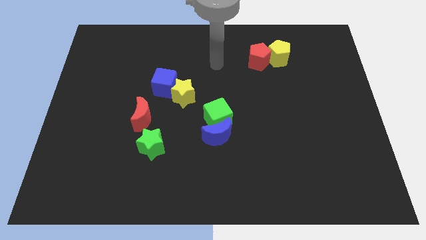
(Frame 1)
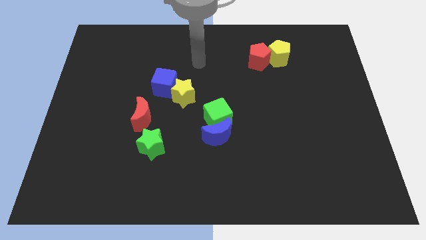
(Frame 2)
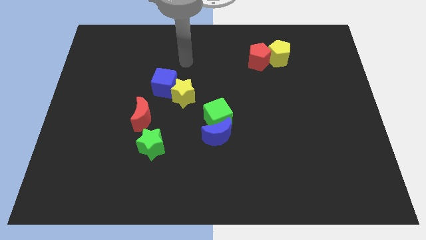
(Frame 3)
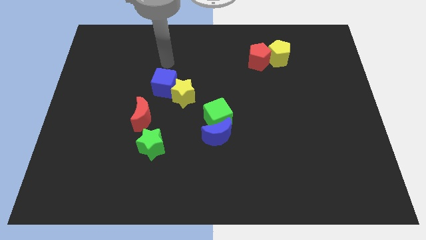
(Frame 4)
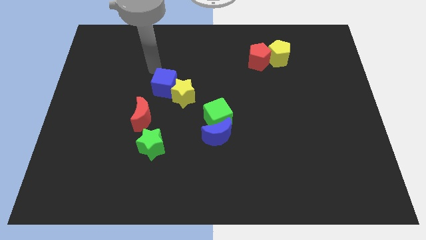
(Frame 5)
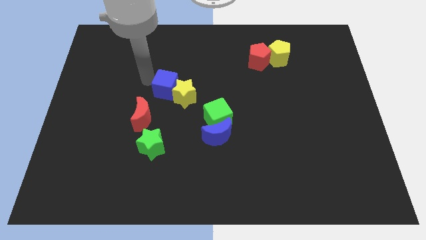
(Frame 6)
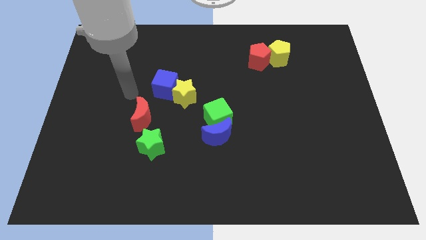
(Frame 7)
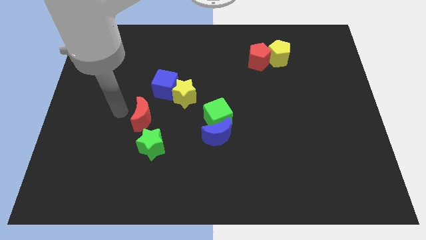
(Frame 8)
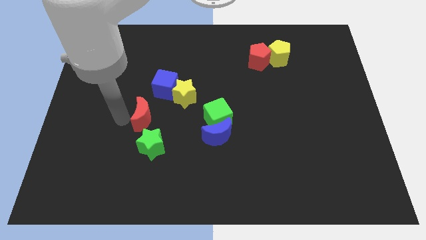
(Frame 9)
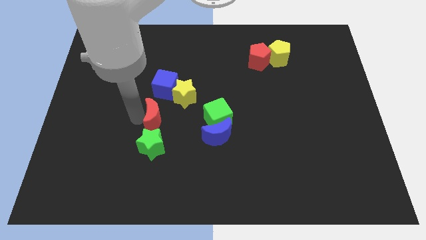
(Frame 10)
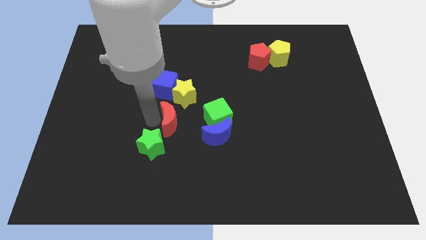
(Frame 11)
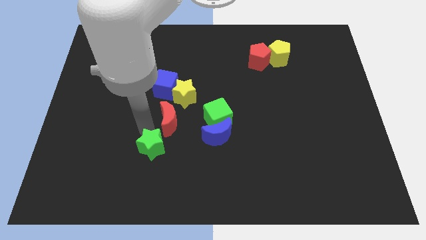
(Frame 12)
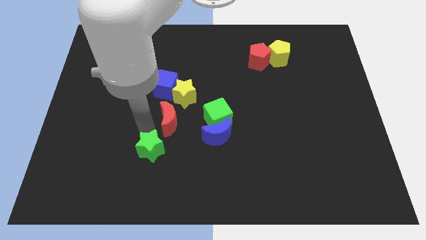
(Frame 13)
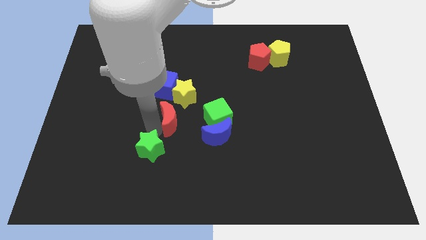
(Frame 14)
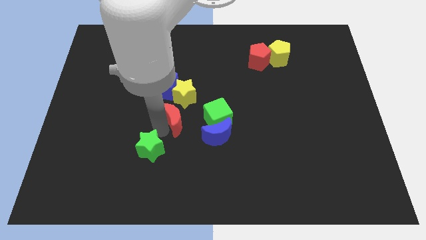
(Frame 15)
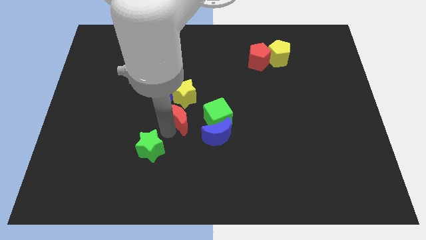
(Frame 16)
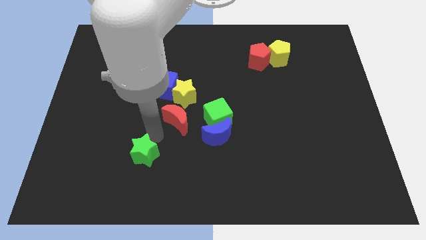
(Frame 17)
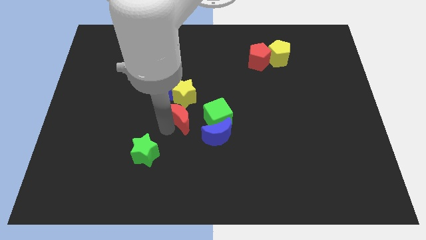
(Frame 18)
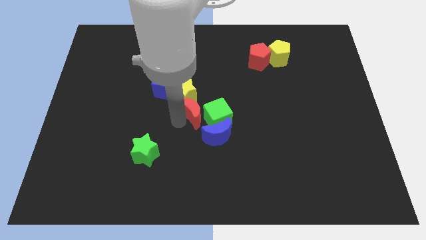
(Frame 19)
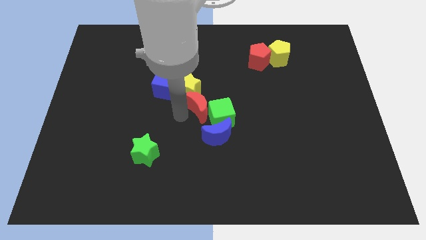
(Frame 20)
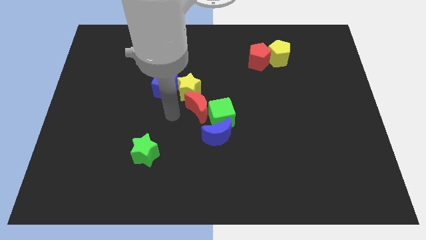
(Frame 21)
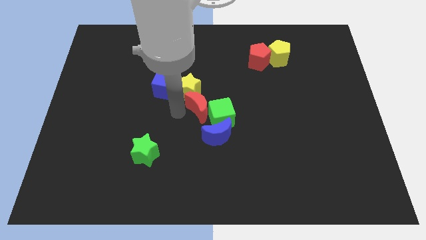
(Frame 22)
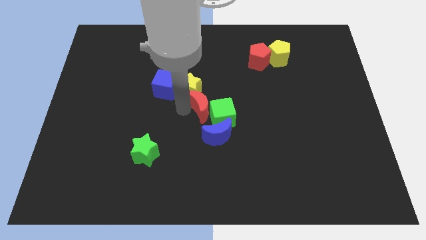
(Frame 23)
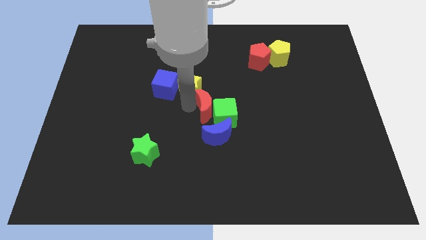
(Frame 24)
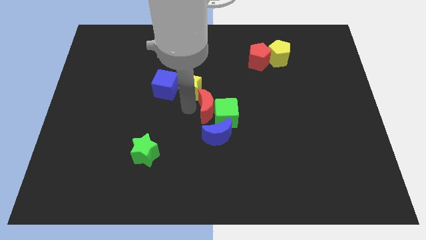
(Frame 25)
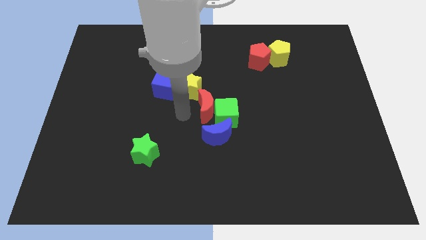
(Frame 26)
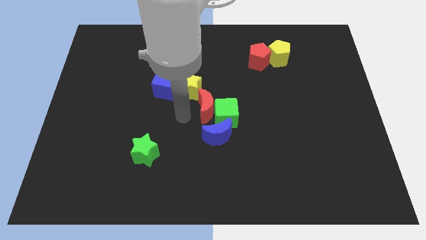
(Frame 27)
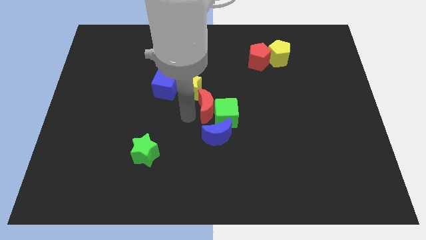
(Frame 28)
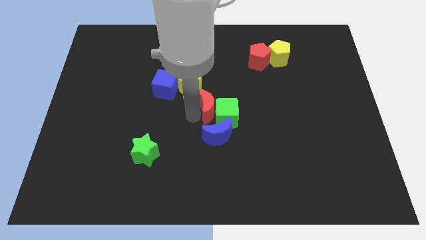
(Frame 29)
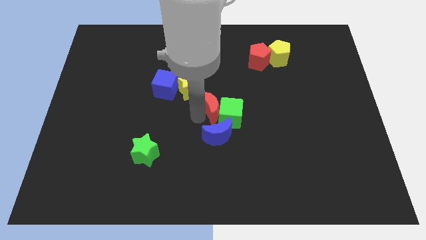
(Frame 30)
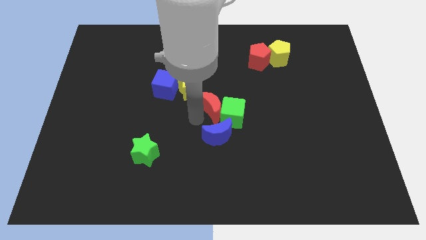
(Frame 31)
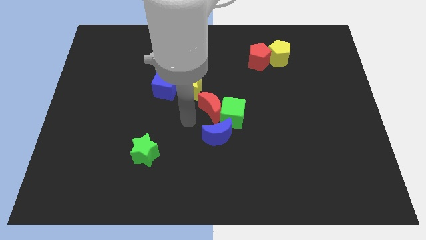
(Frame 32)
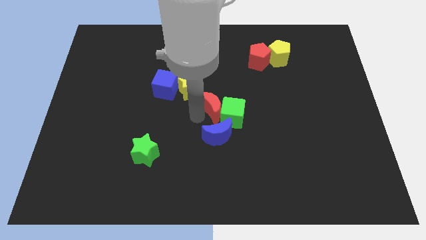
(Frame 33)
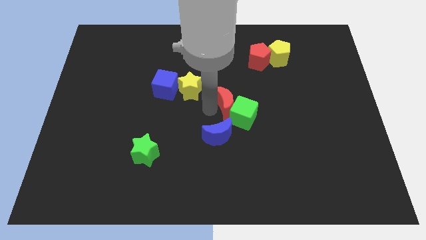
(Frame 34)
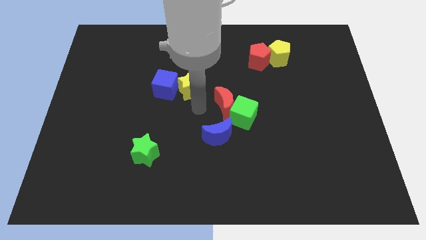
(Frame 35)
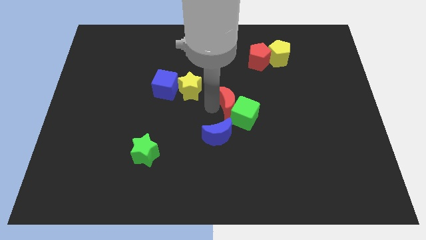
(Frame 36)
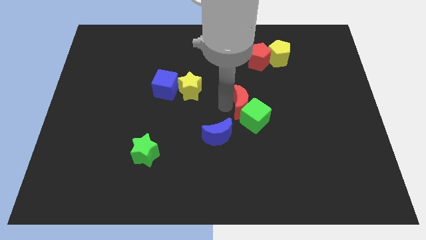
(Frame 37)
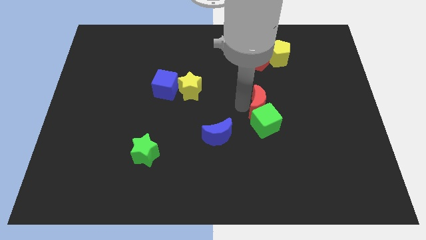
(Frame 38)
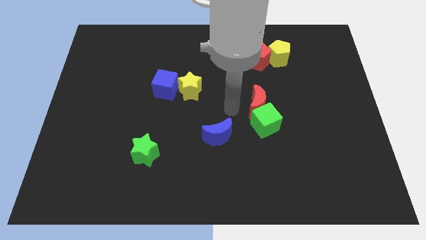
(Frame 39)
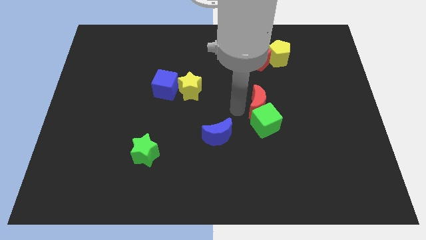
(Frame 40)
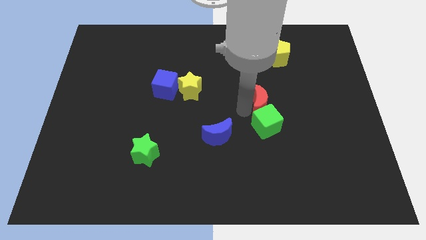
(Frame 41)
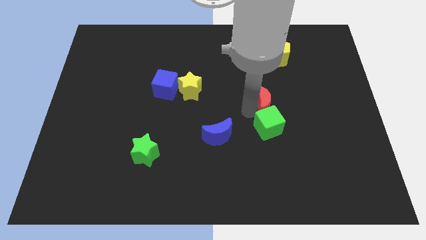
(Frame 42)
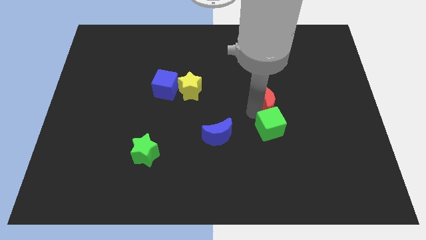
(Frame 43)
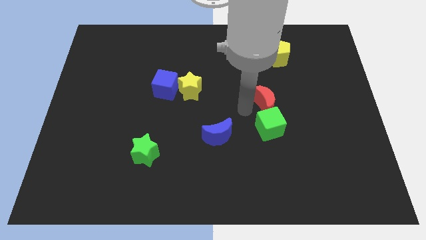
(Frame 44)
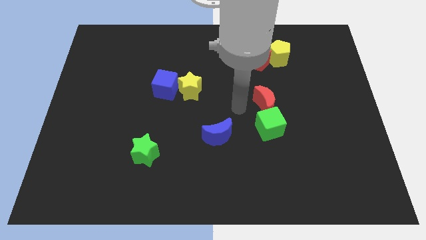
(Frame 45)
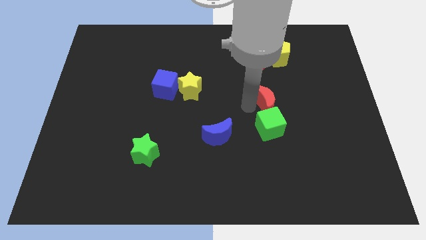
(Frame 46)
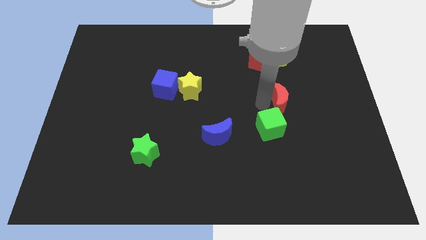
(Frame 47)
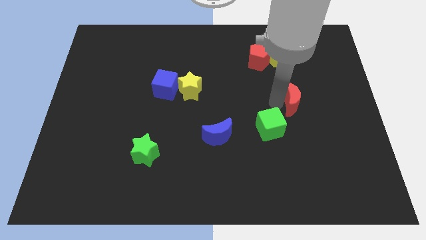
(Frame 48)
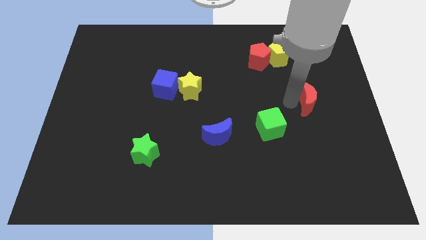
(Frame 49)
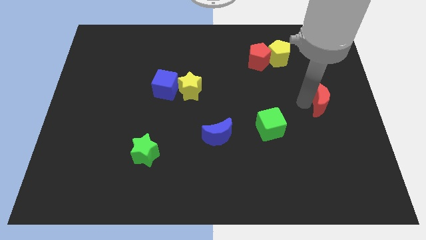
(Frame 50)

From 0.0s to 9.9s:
push the red moon to the center right
